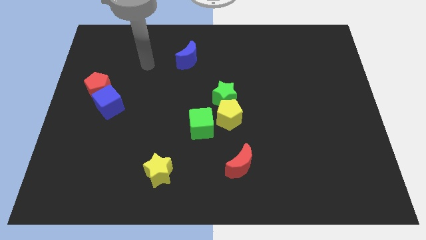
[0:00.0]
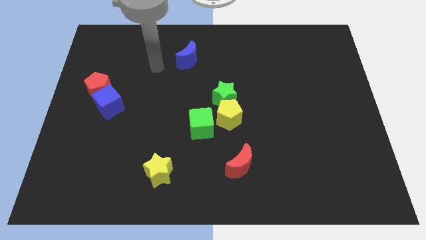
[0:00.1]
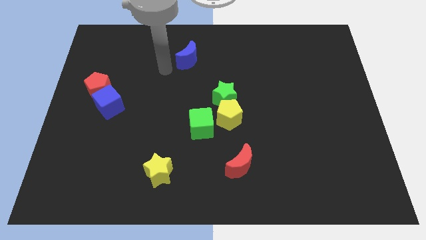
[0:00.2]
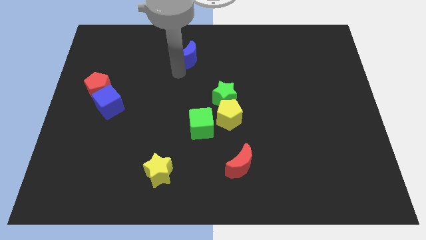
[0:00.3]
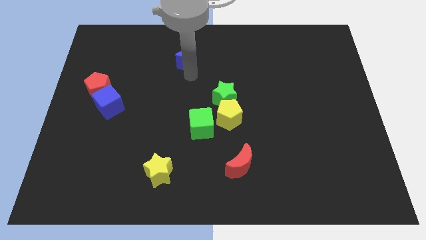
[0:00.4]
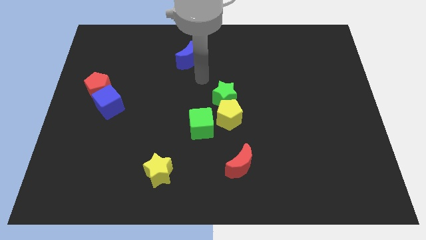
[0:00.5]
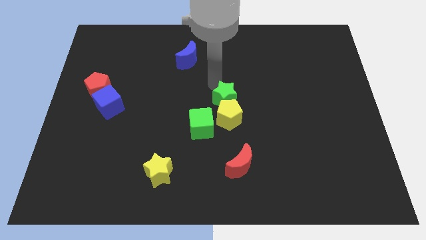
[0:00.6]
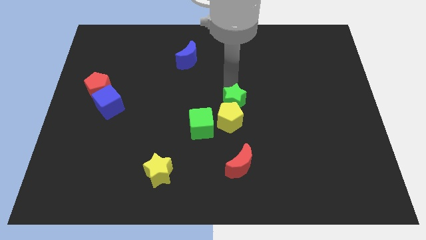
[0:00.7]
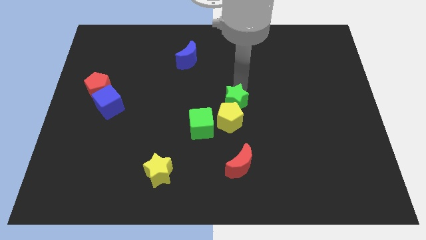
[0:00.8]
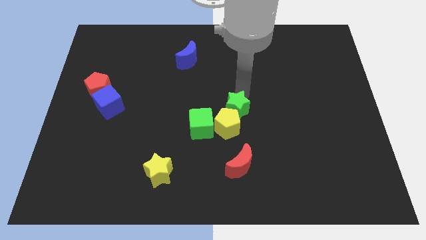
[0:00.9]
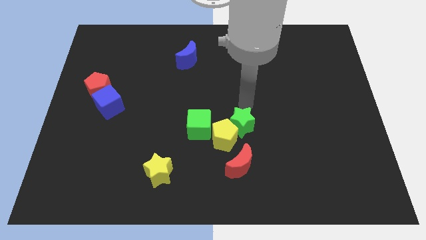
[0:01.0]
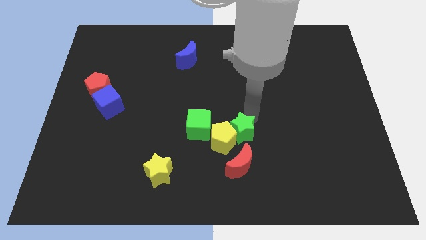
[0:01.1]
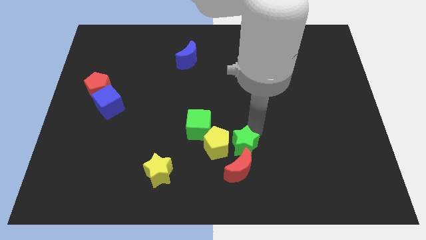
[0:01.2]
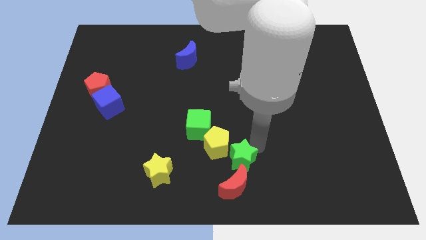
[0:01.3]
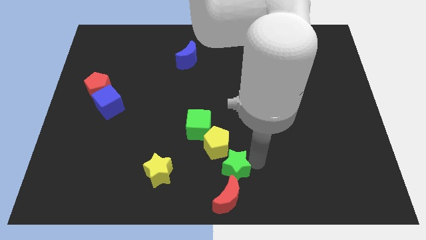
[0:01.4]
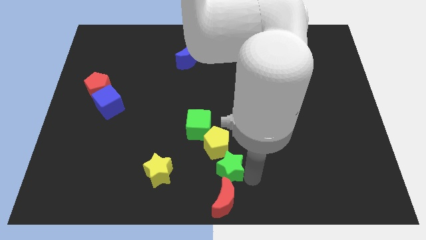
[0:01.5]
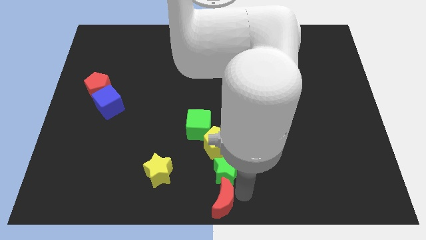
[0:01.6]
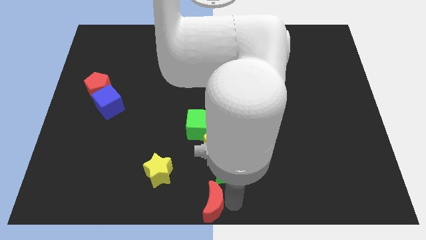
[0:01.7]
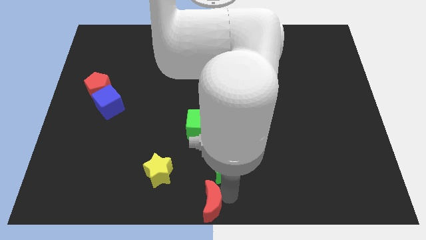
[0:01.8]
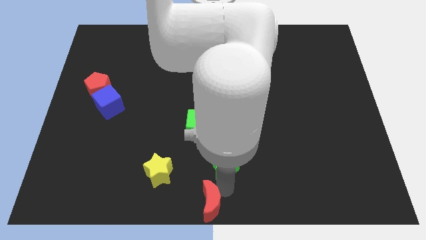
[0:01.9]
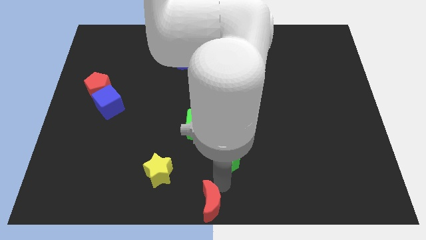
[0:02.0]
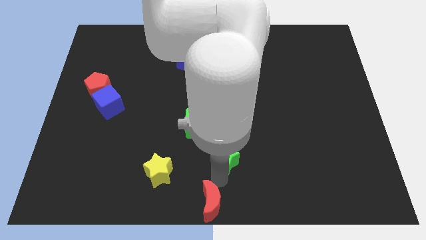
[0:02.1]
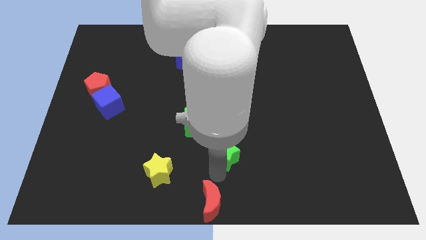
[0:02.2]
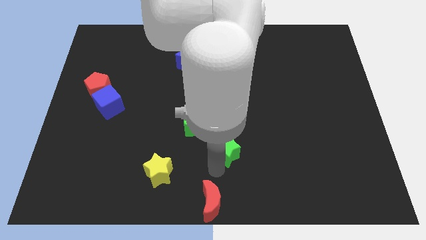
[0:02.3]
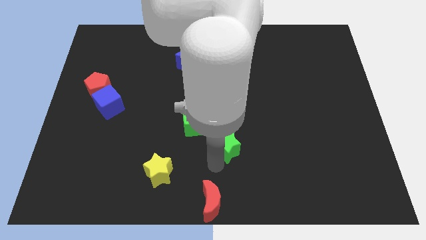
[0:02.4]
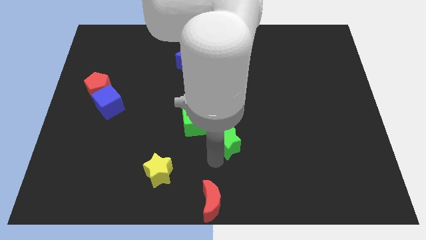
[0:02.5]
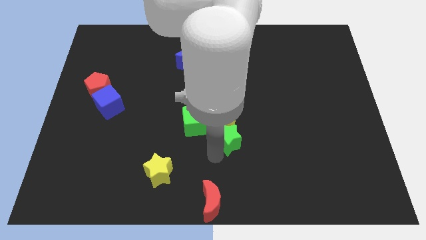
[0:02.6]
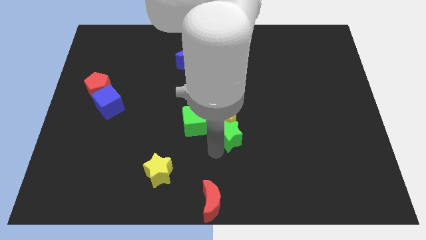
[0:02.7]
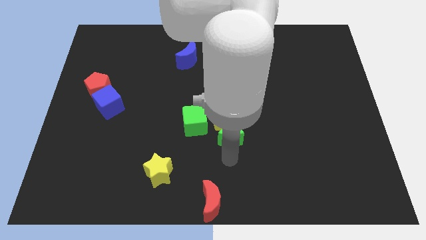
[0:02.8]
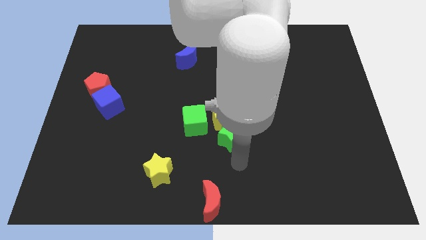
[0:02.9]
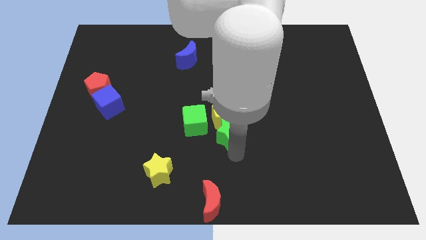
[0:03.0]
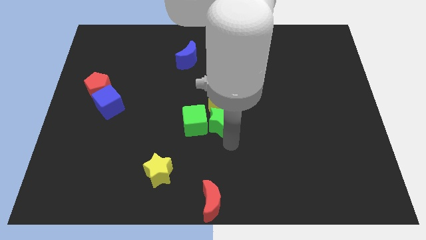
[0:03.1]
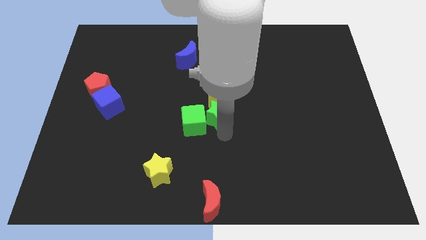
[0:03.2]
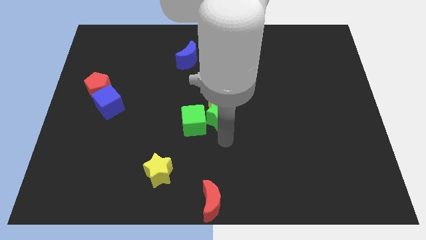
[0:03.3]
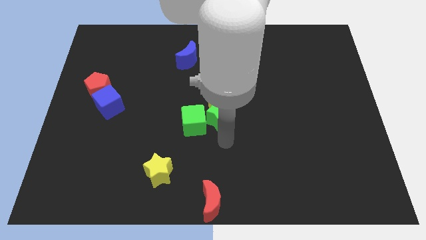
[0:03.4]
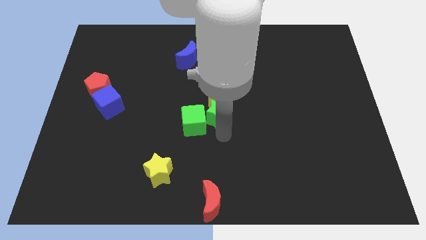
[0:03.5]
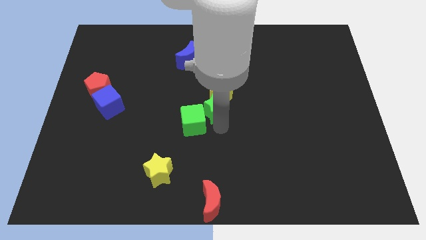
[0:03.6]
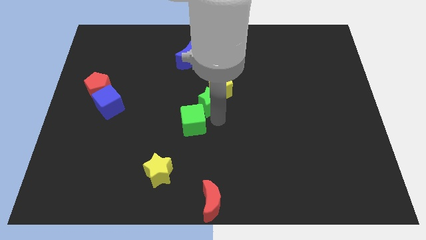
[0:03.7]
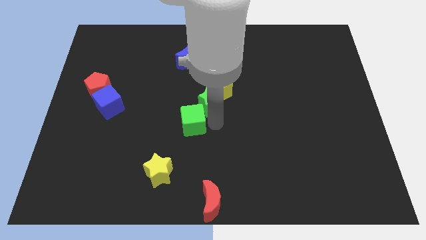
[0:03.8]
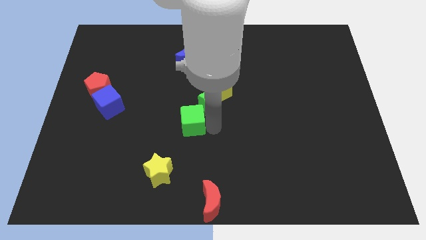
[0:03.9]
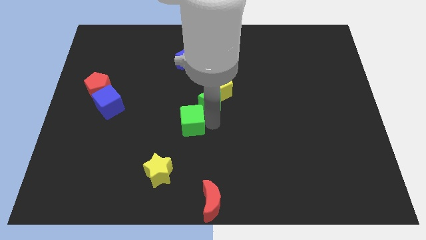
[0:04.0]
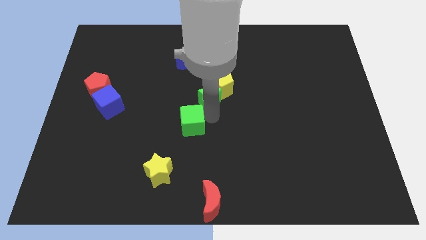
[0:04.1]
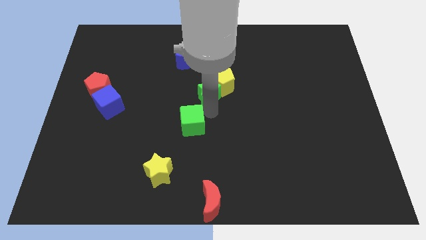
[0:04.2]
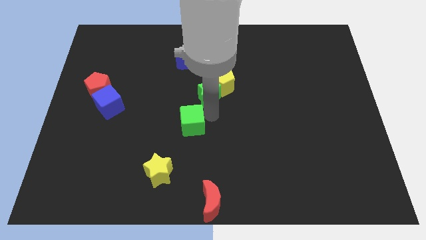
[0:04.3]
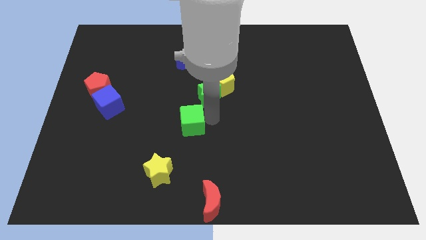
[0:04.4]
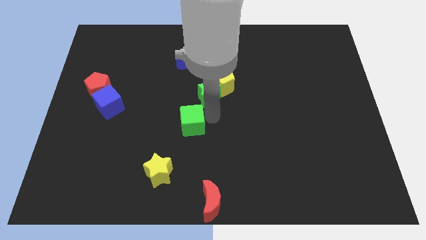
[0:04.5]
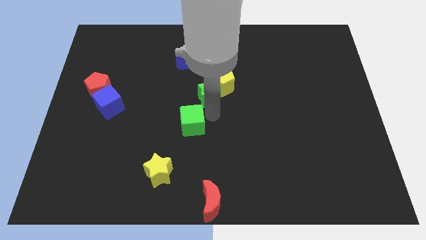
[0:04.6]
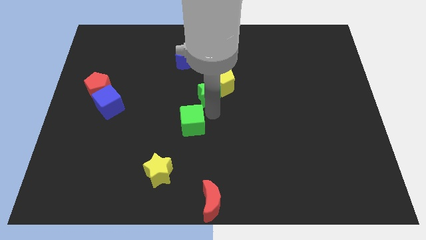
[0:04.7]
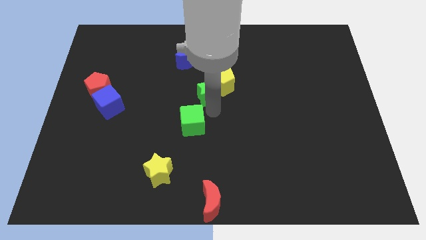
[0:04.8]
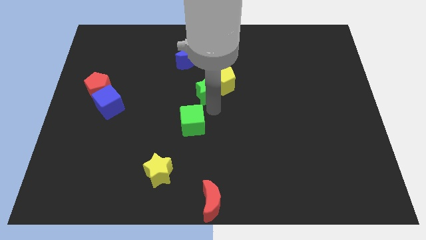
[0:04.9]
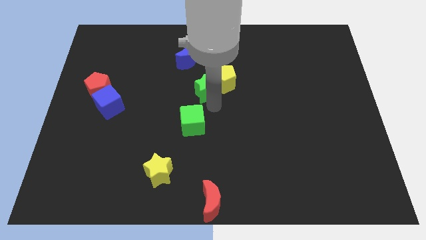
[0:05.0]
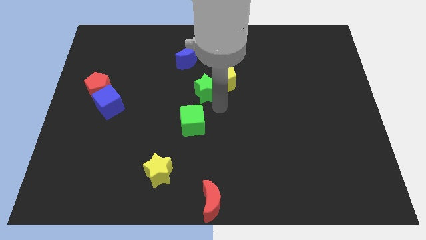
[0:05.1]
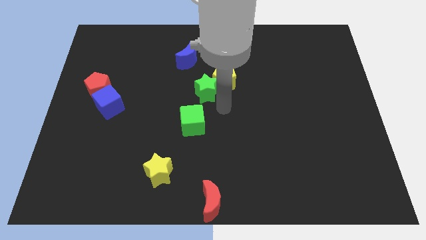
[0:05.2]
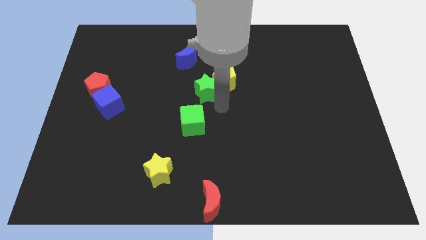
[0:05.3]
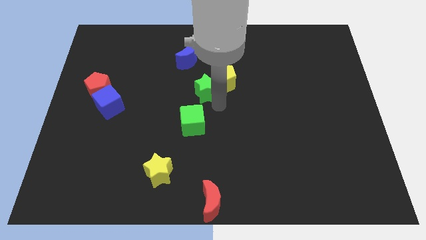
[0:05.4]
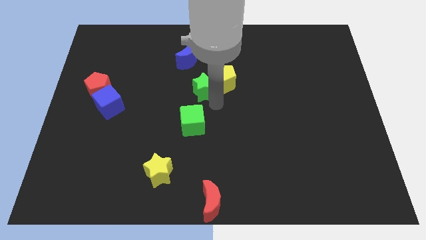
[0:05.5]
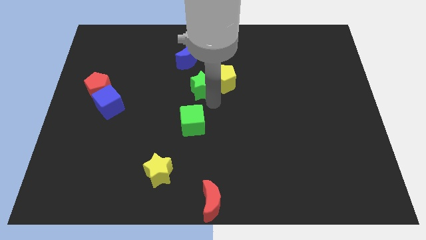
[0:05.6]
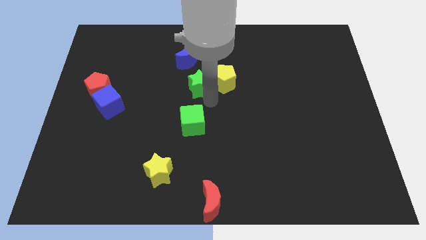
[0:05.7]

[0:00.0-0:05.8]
slide the green star somewhat up and left diagonally

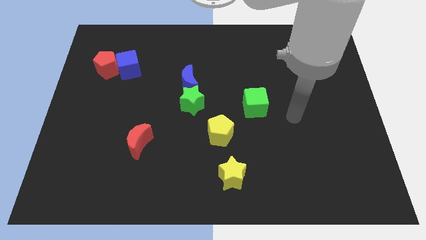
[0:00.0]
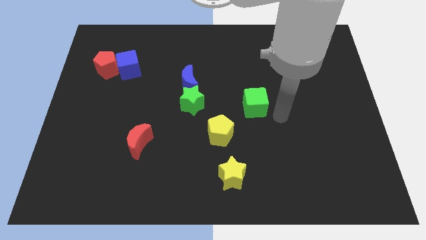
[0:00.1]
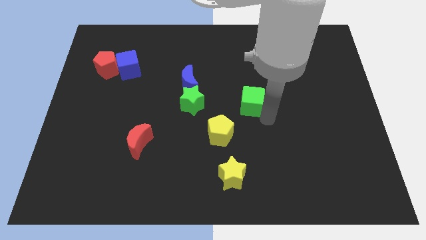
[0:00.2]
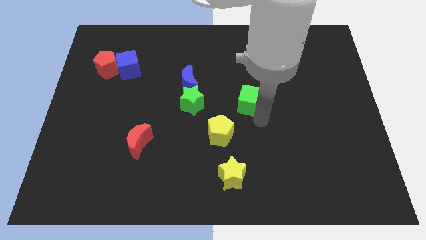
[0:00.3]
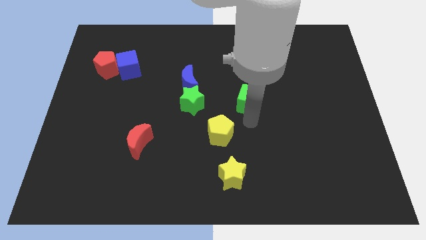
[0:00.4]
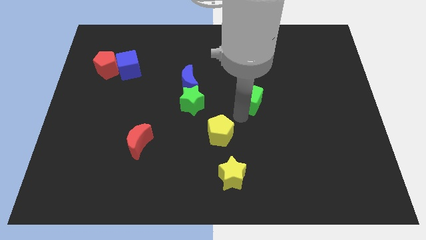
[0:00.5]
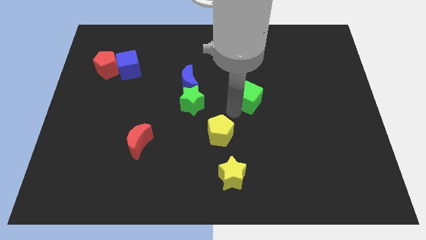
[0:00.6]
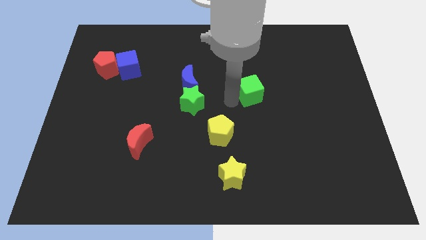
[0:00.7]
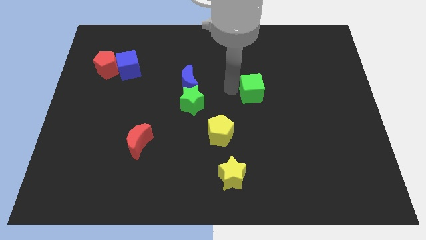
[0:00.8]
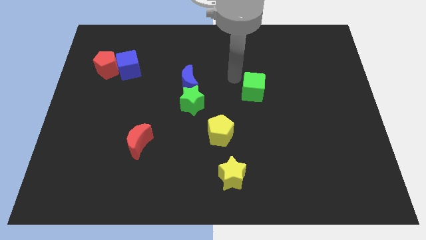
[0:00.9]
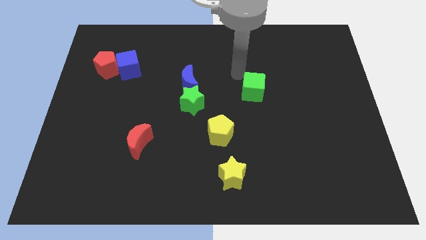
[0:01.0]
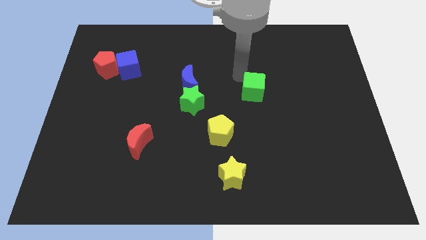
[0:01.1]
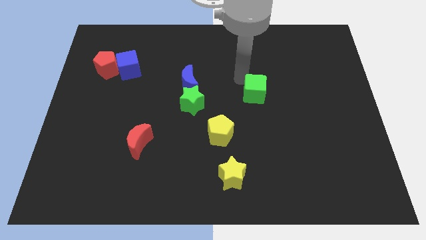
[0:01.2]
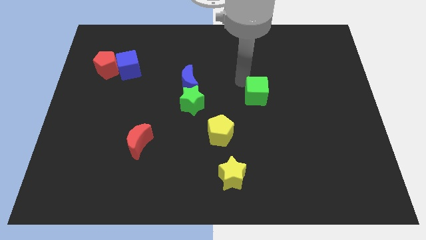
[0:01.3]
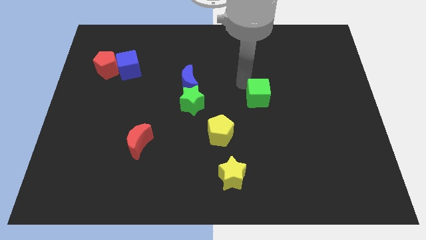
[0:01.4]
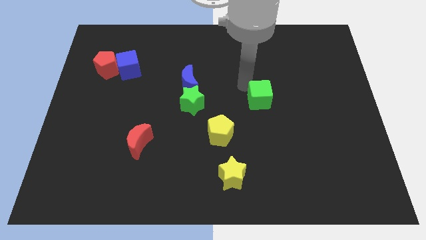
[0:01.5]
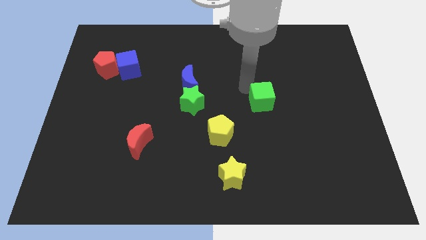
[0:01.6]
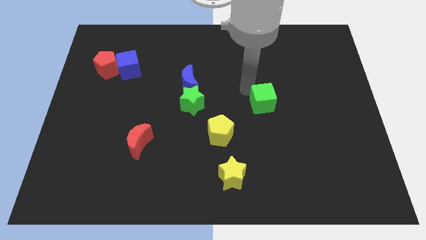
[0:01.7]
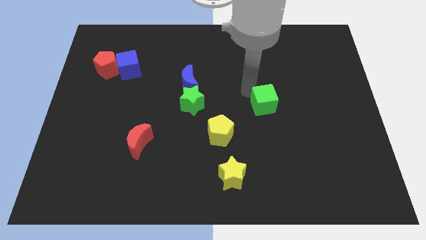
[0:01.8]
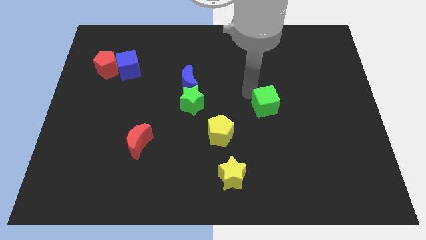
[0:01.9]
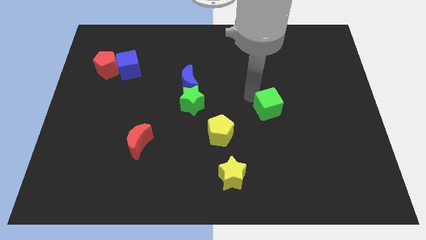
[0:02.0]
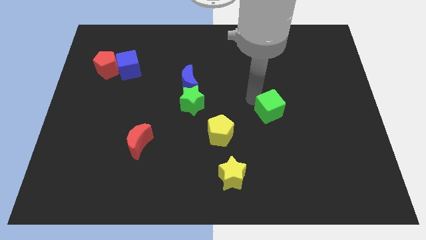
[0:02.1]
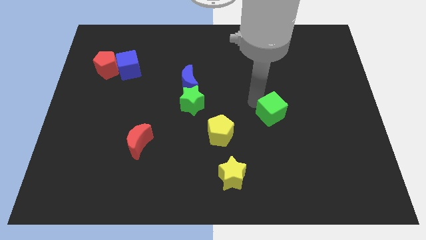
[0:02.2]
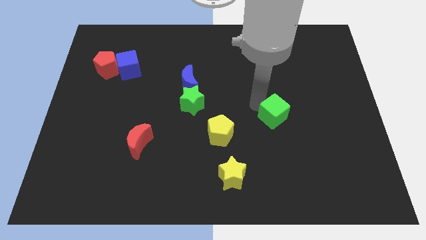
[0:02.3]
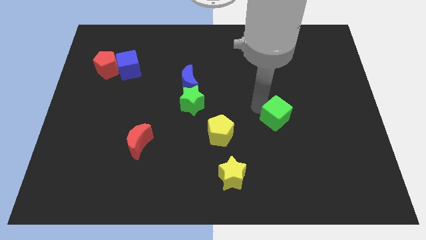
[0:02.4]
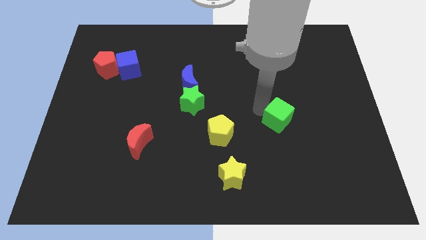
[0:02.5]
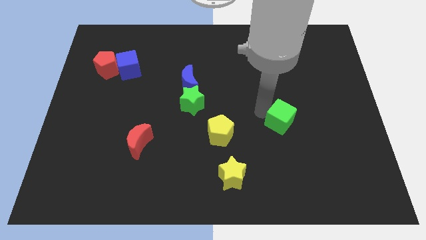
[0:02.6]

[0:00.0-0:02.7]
slightly move the green cube diagonally downwards and to the right
